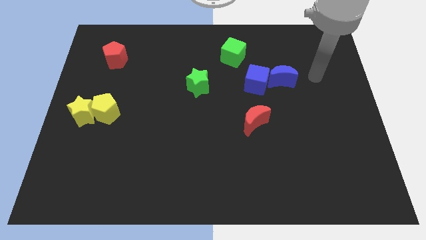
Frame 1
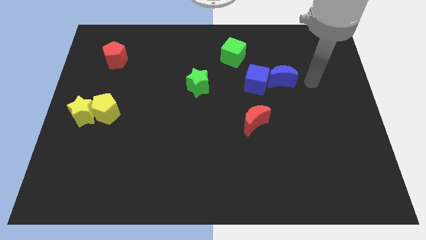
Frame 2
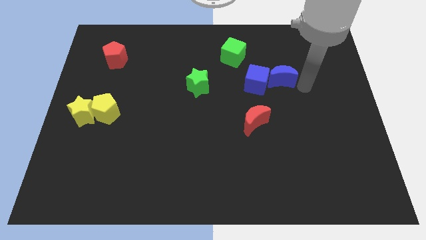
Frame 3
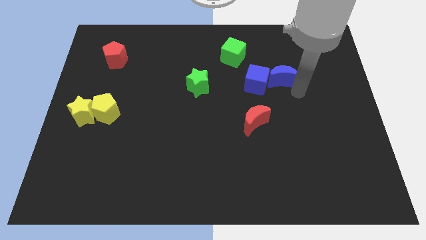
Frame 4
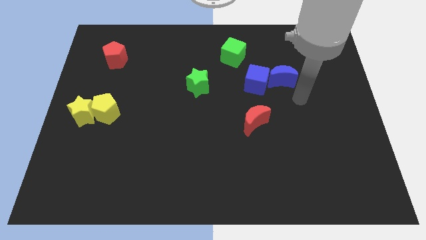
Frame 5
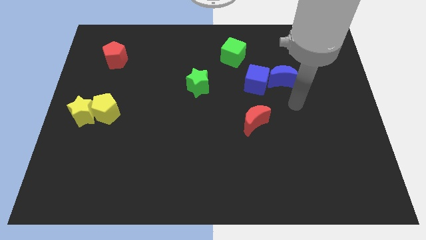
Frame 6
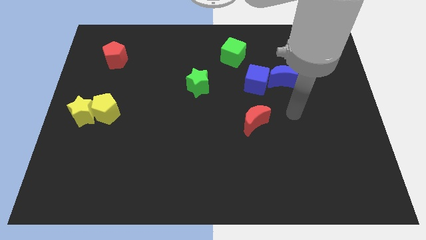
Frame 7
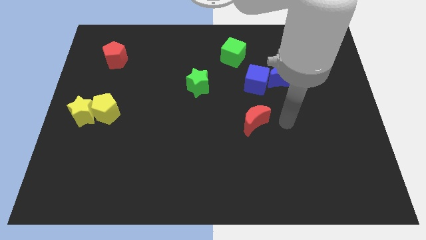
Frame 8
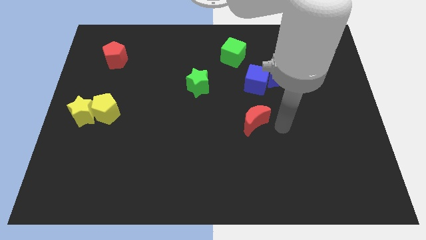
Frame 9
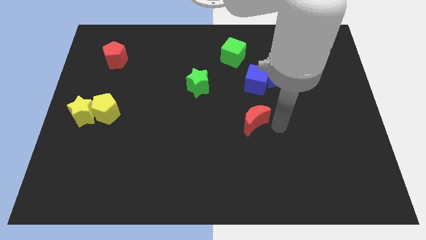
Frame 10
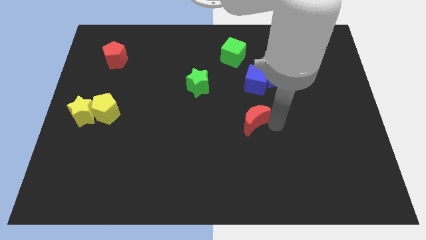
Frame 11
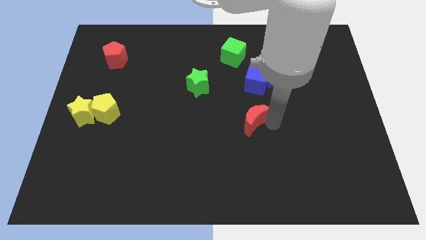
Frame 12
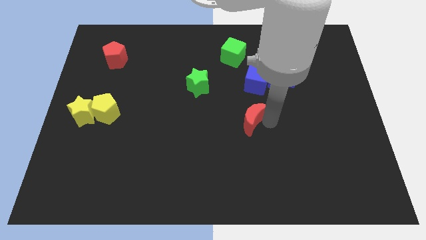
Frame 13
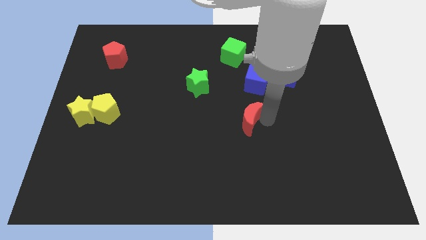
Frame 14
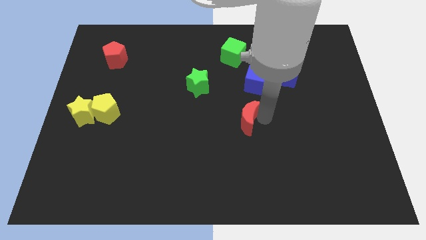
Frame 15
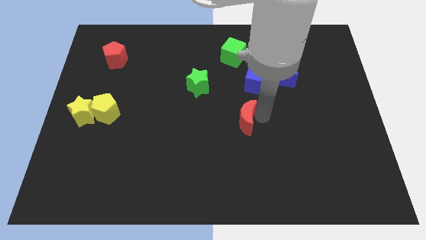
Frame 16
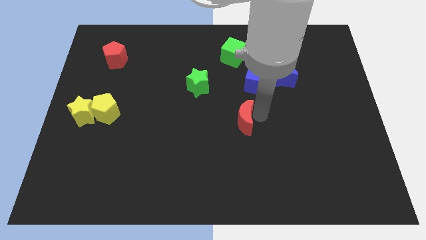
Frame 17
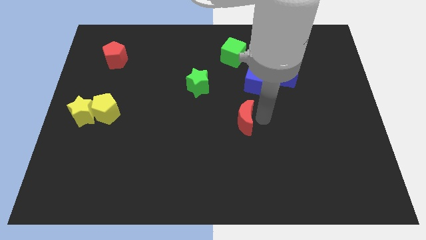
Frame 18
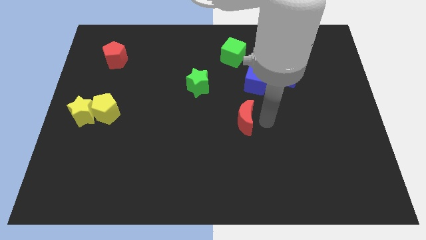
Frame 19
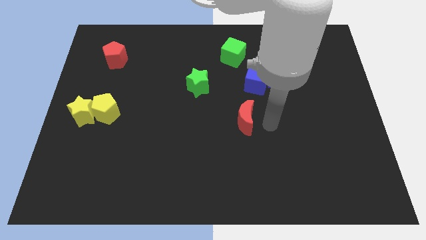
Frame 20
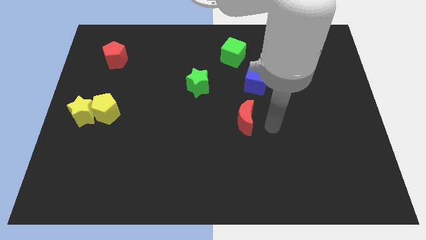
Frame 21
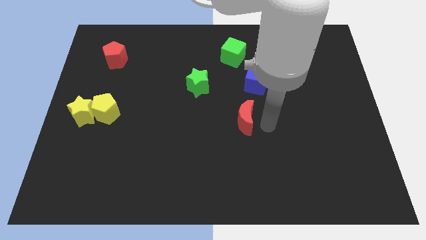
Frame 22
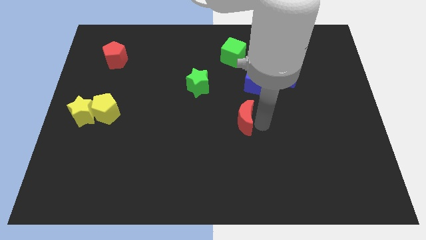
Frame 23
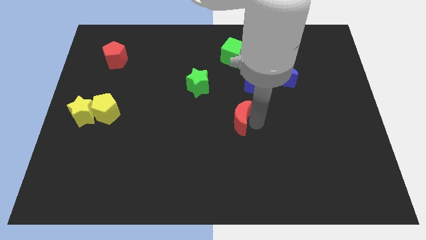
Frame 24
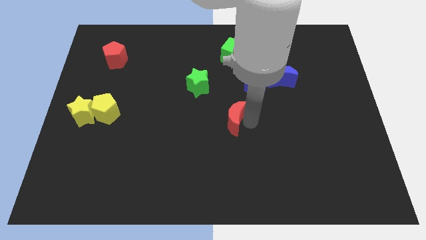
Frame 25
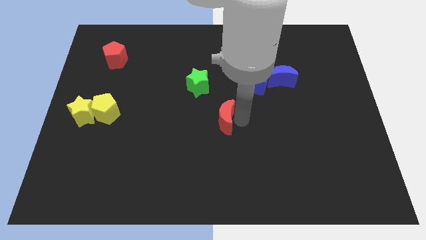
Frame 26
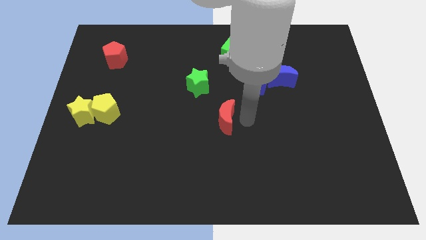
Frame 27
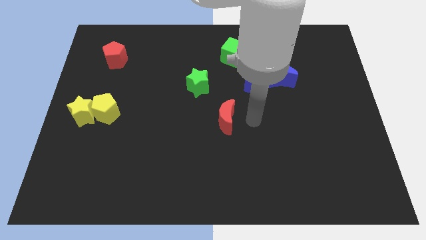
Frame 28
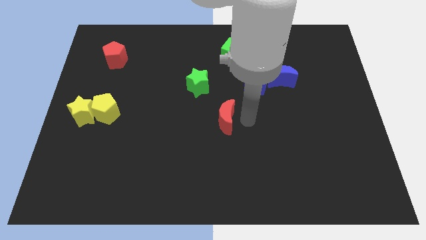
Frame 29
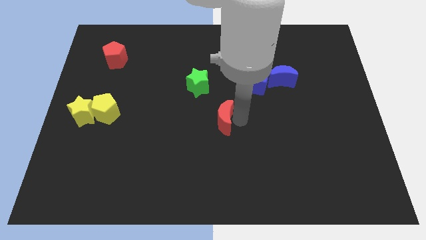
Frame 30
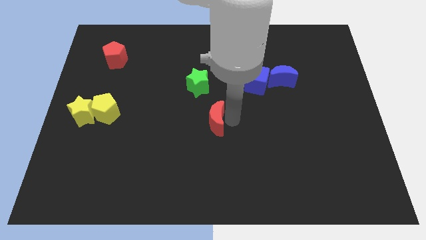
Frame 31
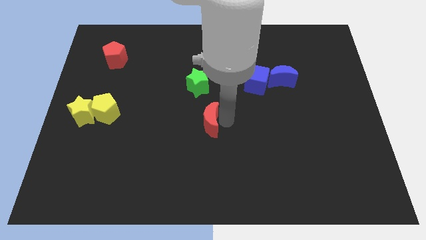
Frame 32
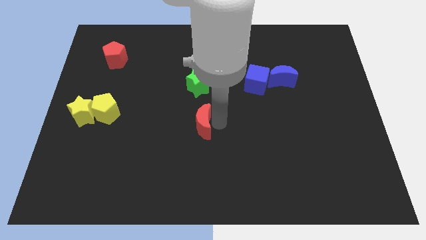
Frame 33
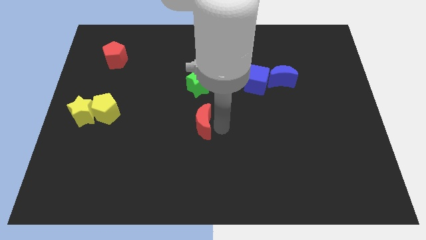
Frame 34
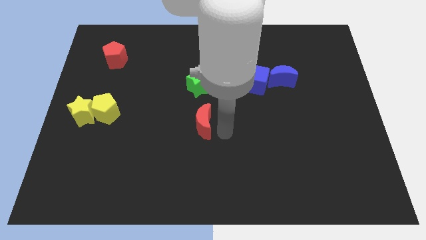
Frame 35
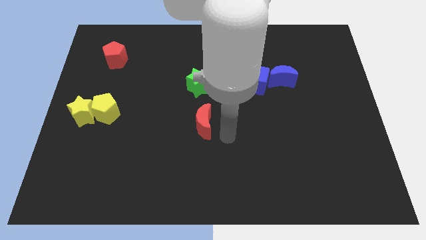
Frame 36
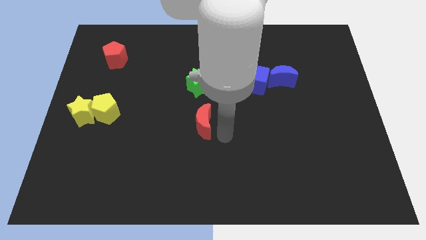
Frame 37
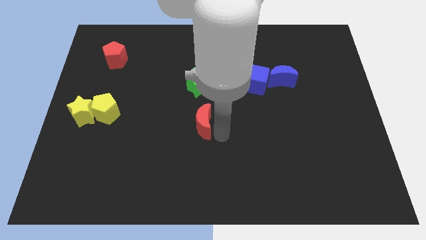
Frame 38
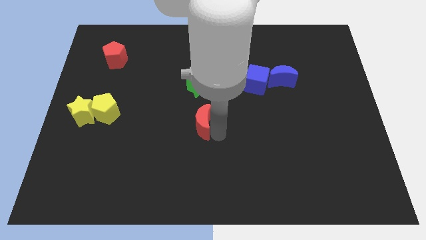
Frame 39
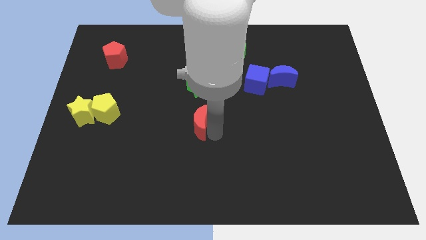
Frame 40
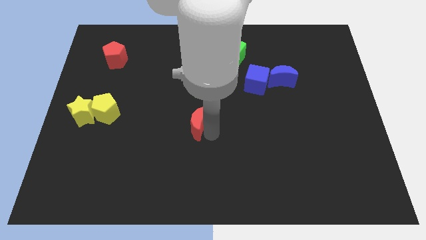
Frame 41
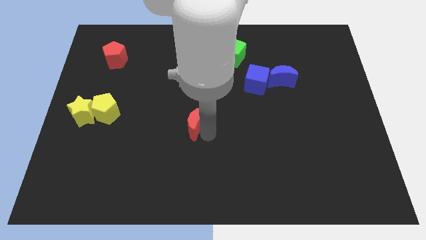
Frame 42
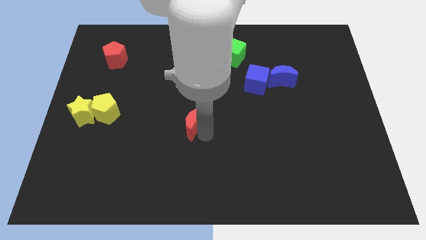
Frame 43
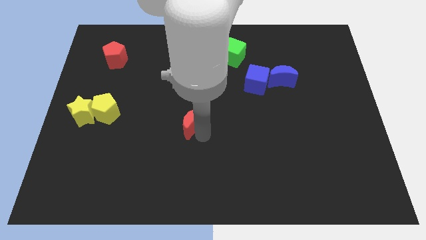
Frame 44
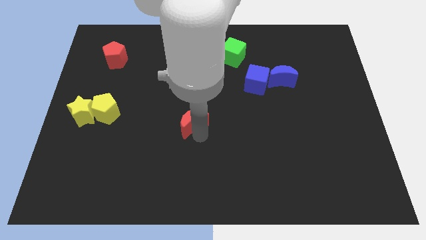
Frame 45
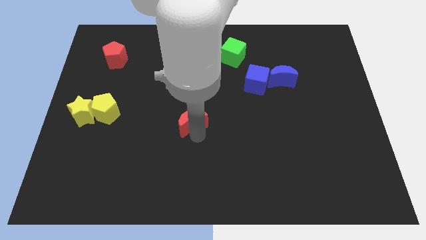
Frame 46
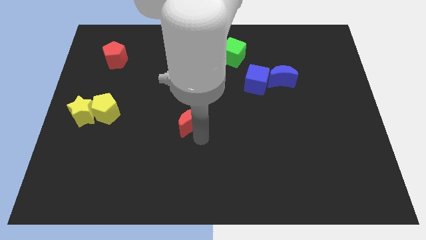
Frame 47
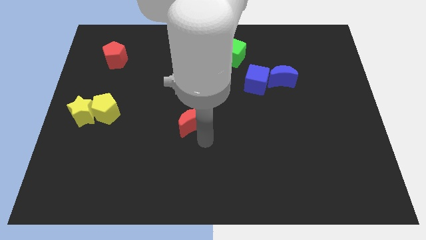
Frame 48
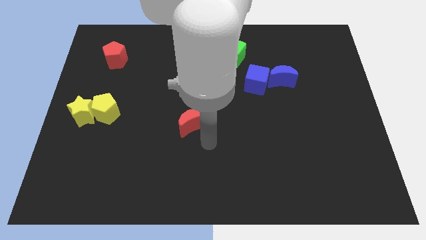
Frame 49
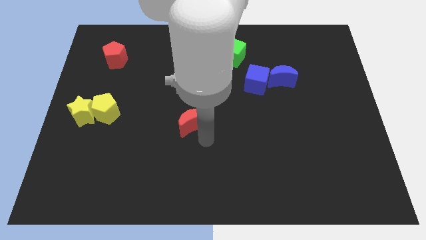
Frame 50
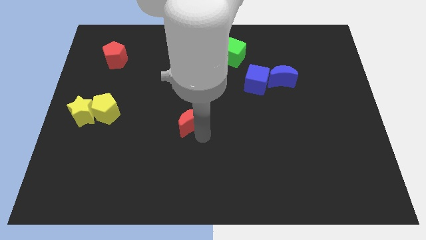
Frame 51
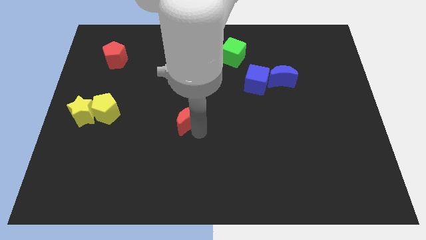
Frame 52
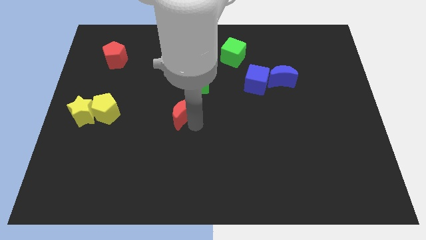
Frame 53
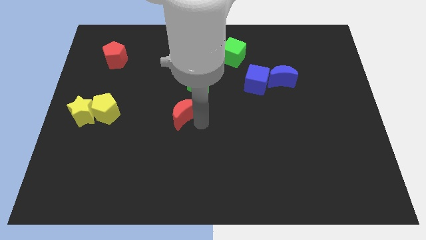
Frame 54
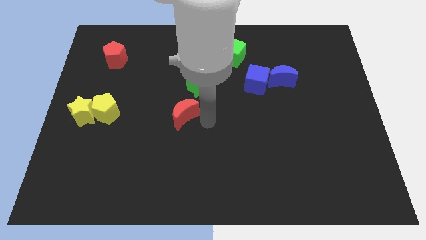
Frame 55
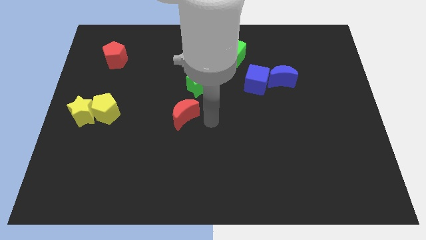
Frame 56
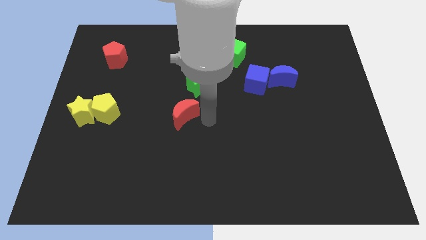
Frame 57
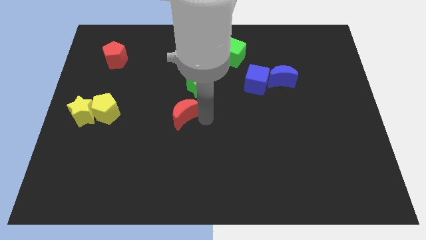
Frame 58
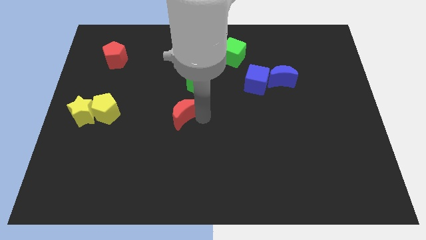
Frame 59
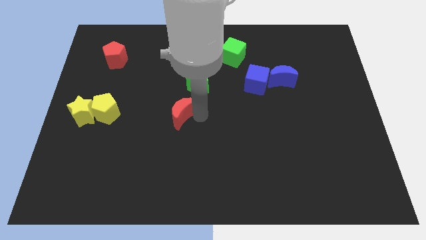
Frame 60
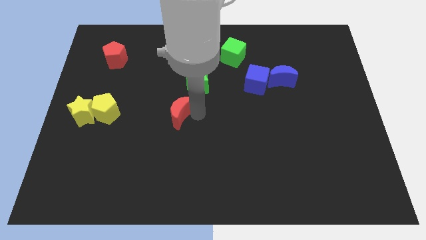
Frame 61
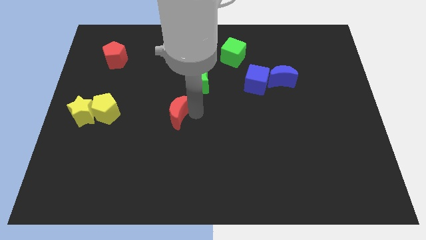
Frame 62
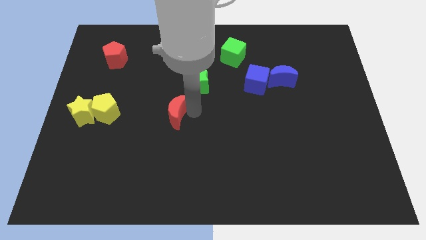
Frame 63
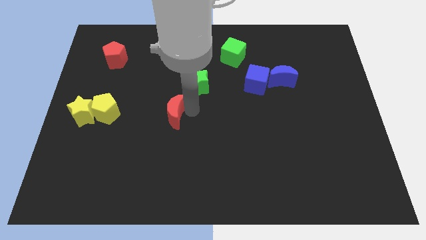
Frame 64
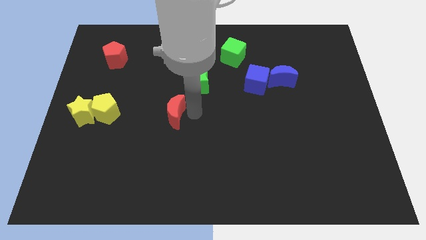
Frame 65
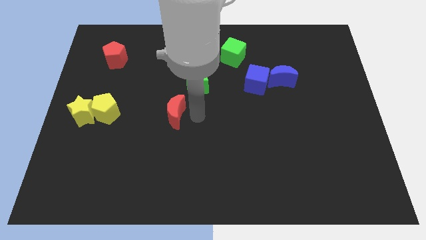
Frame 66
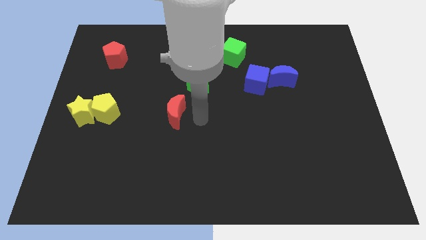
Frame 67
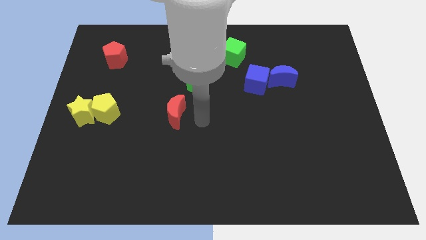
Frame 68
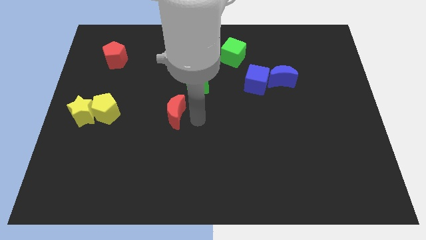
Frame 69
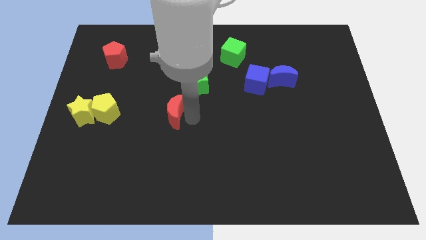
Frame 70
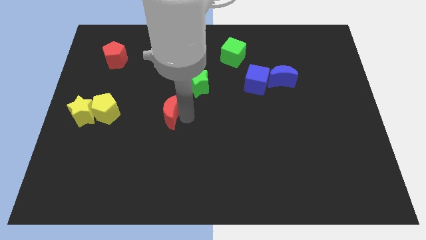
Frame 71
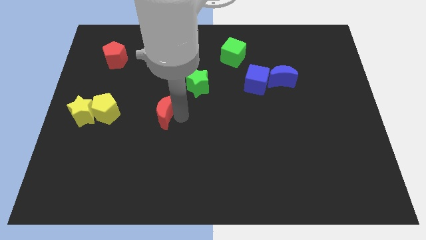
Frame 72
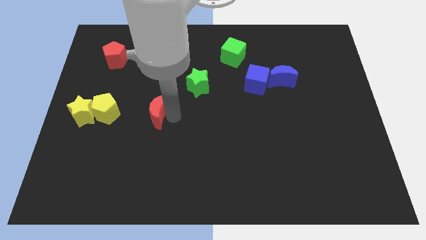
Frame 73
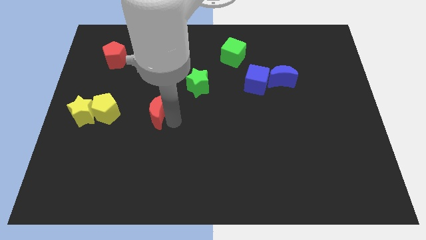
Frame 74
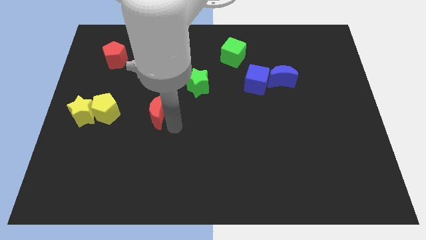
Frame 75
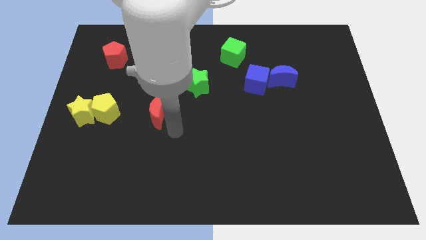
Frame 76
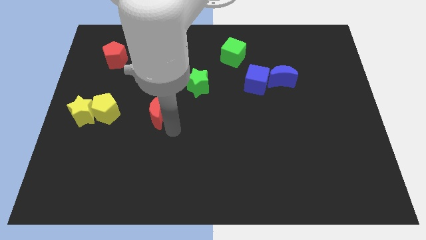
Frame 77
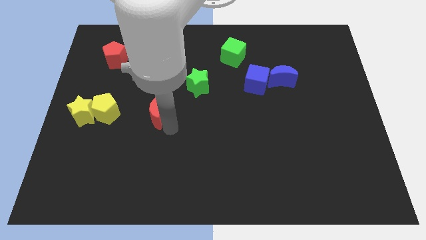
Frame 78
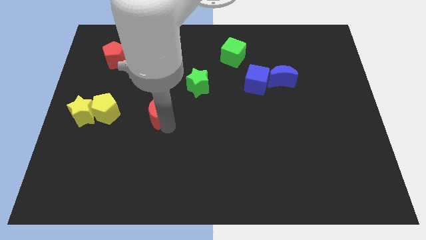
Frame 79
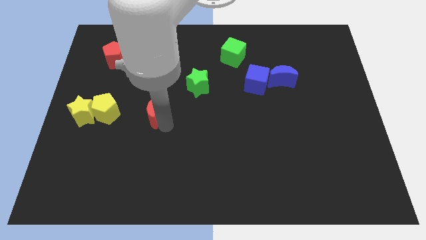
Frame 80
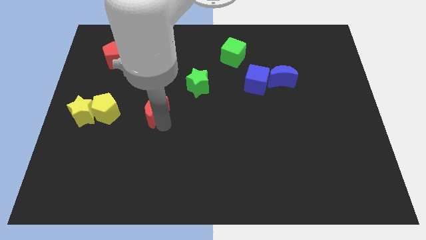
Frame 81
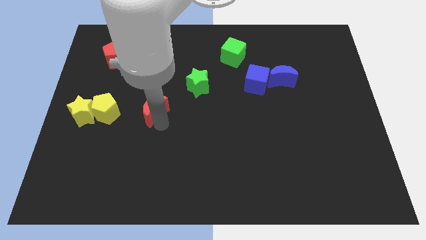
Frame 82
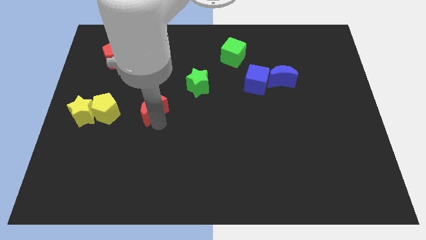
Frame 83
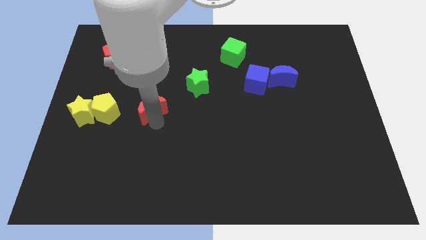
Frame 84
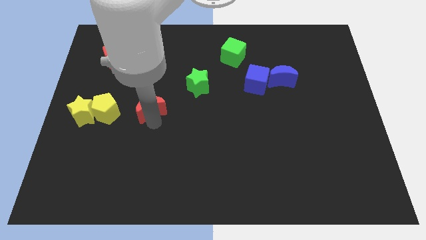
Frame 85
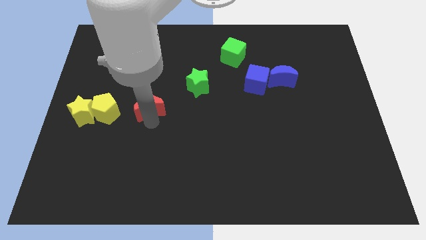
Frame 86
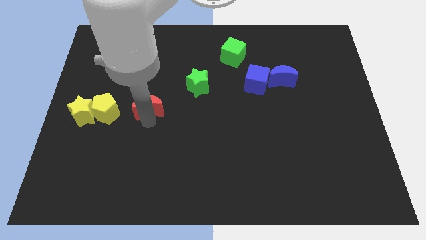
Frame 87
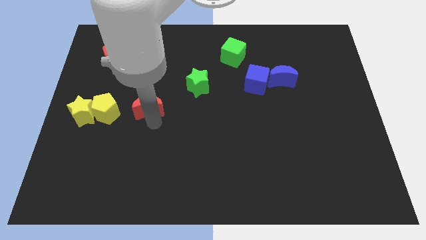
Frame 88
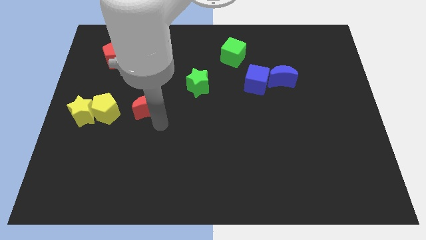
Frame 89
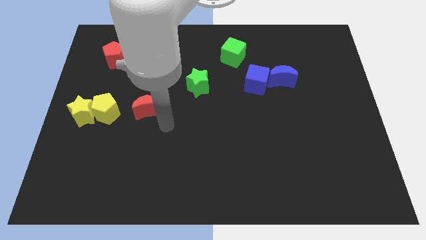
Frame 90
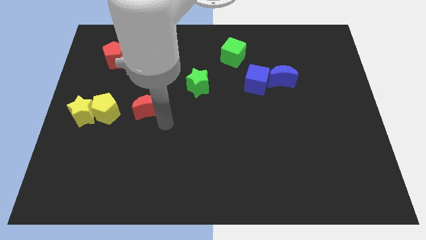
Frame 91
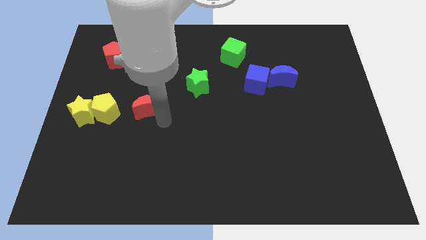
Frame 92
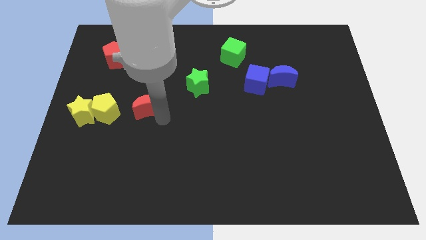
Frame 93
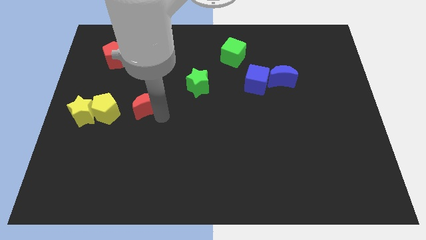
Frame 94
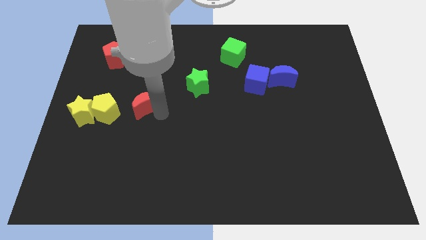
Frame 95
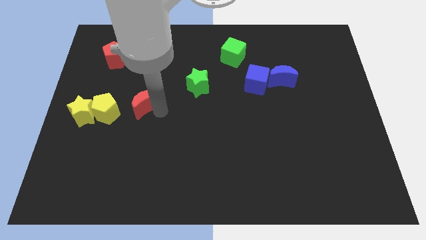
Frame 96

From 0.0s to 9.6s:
push the red moon diagonally up and to the right of the yellow pentagon
